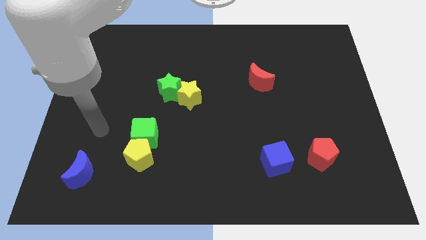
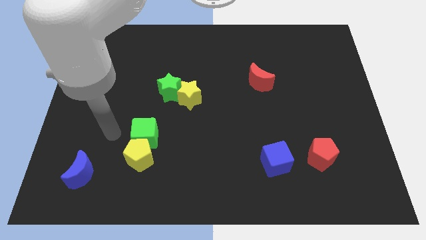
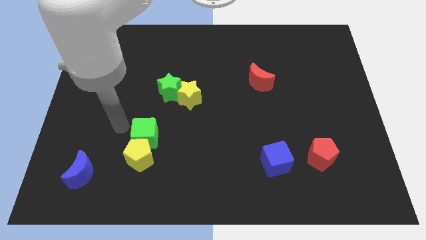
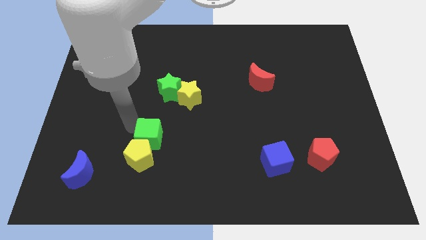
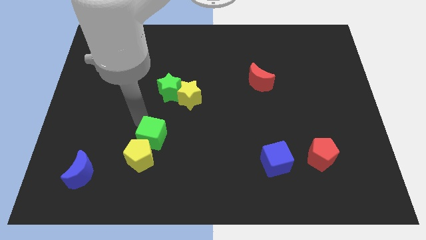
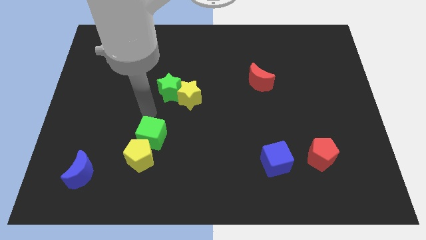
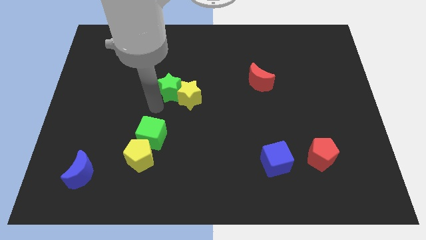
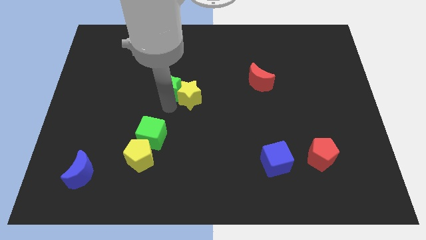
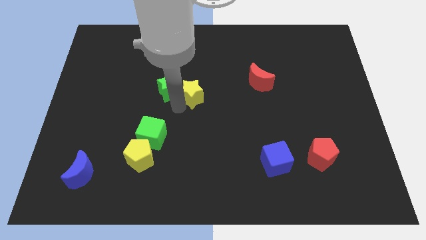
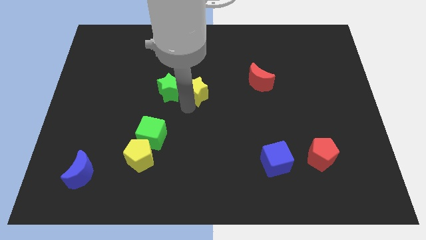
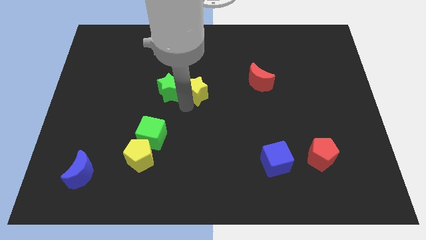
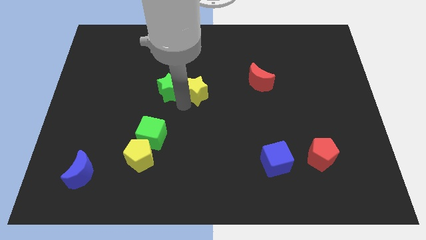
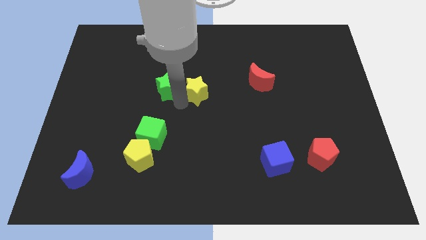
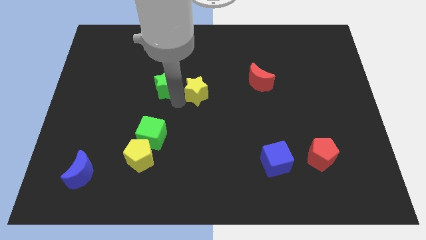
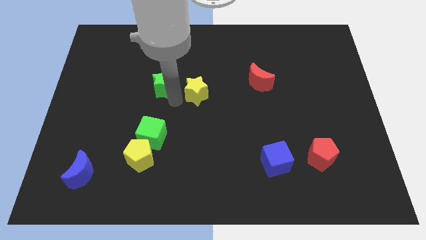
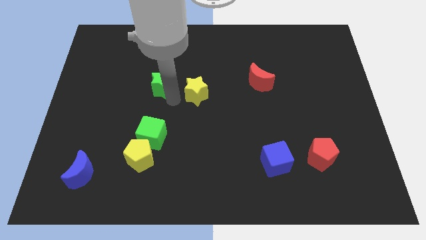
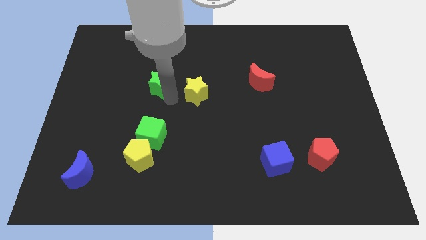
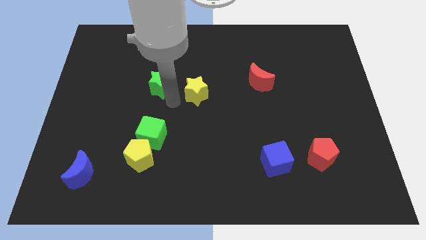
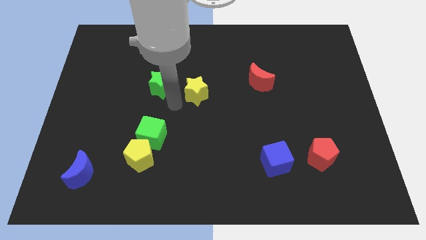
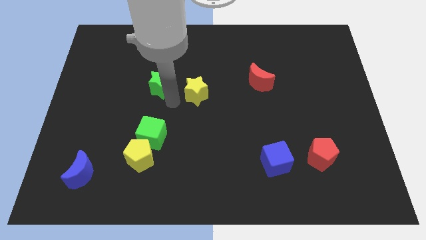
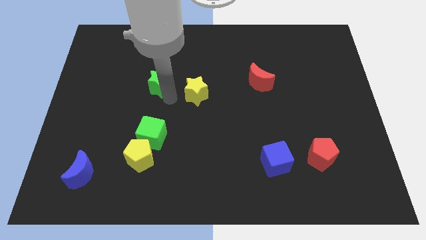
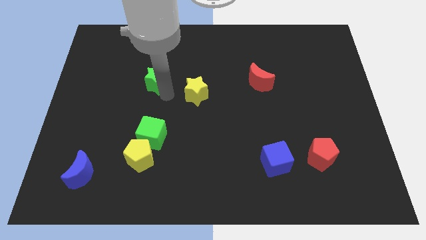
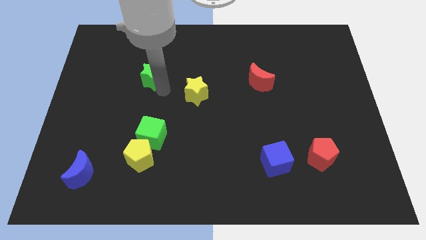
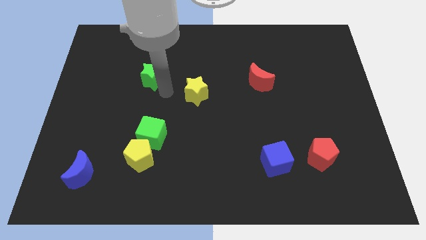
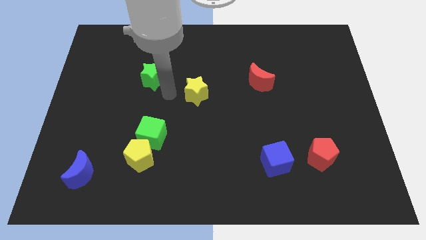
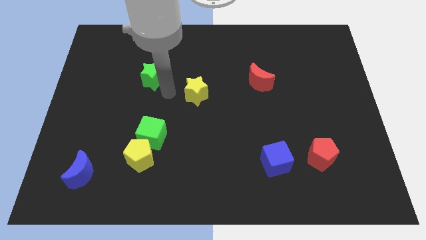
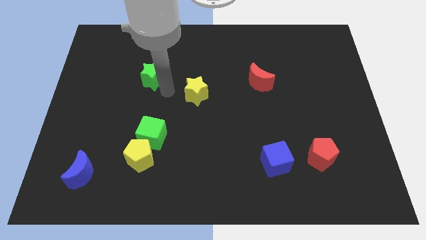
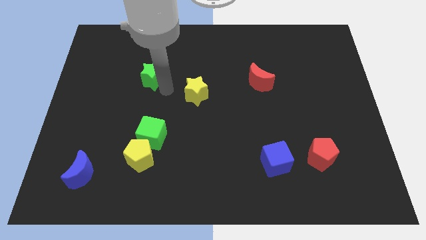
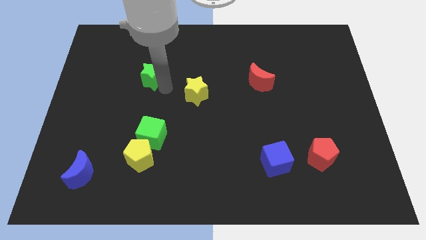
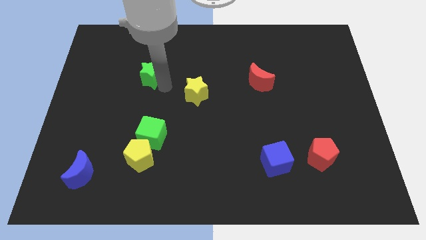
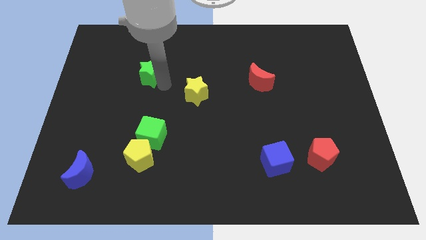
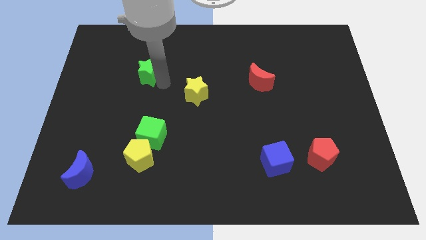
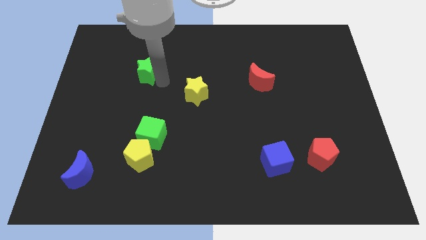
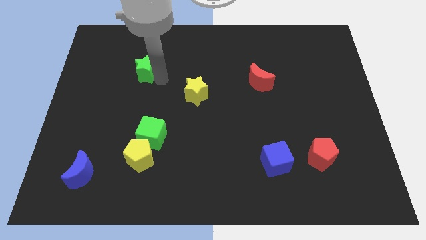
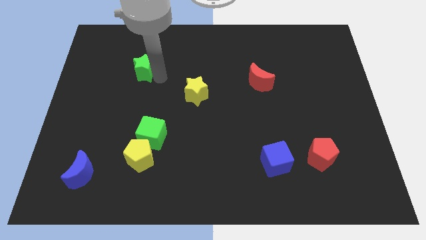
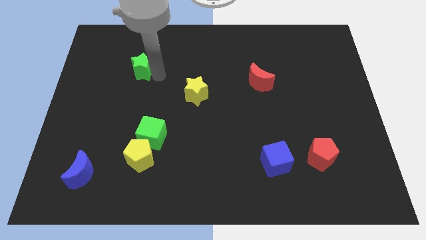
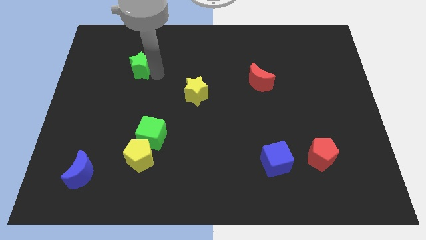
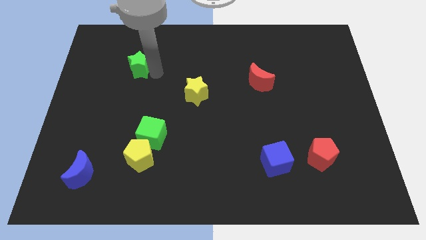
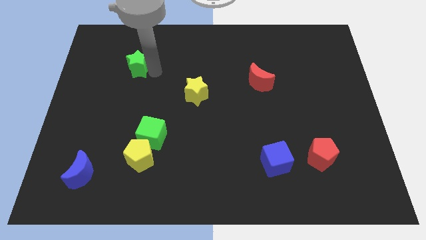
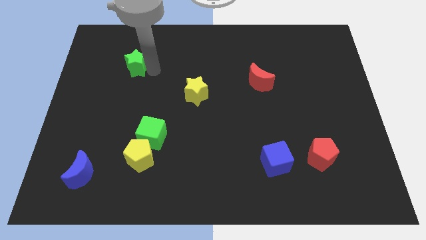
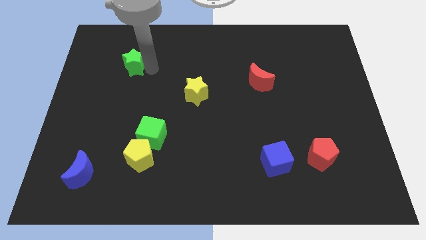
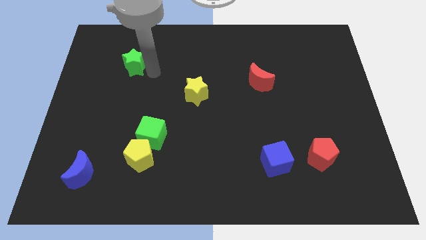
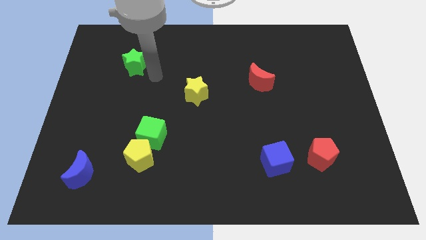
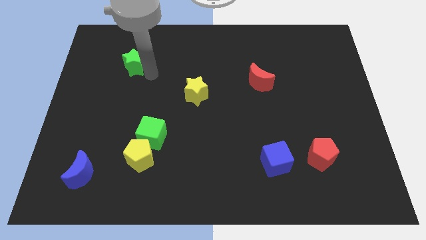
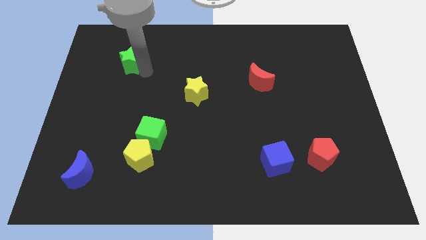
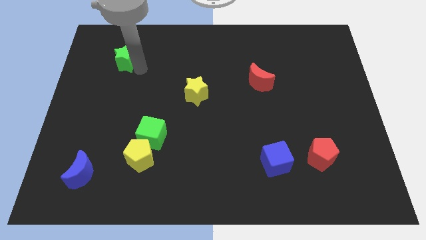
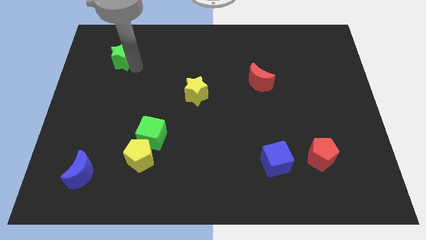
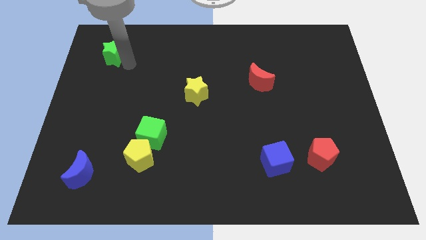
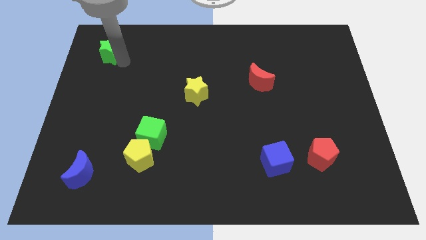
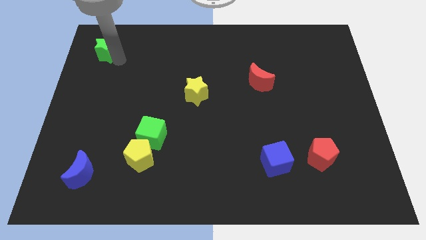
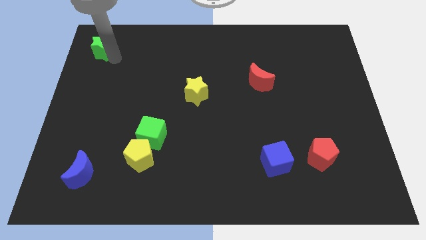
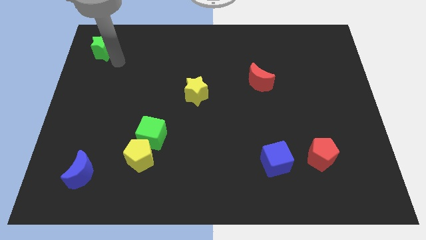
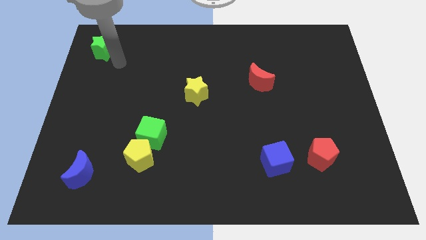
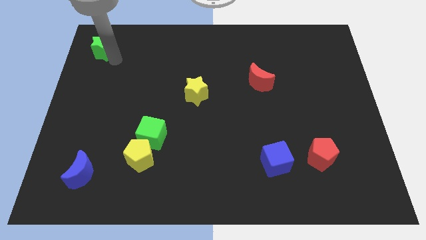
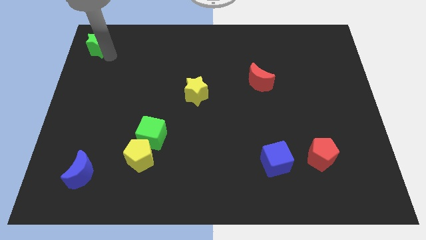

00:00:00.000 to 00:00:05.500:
push the green star to the upper left corner

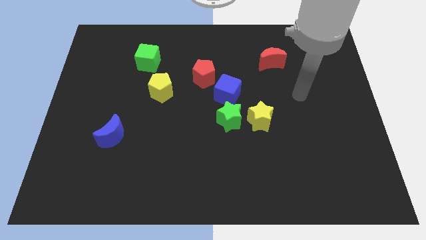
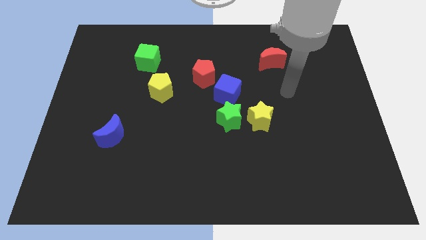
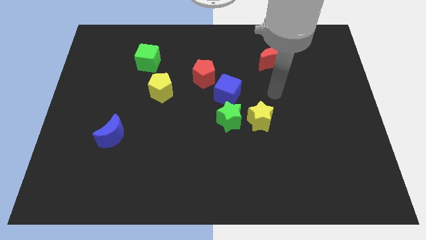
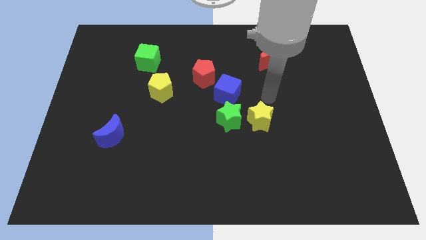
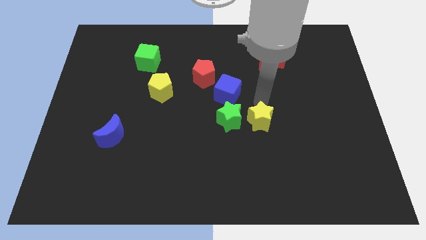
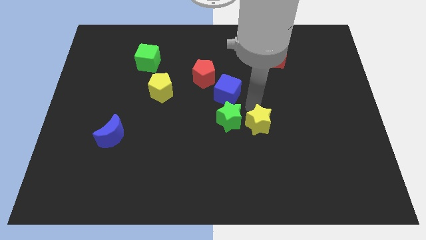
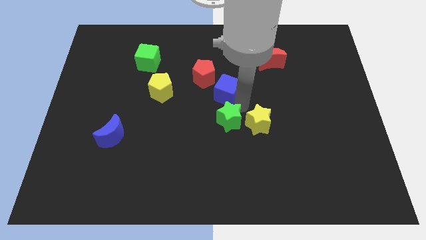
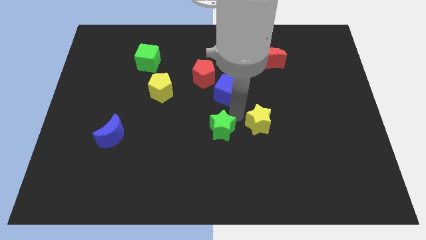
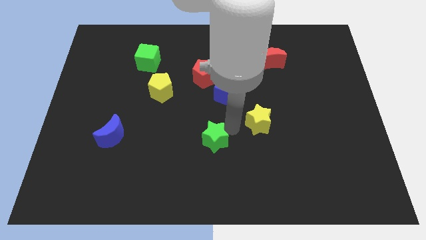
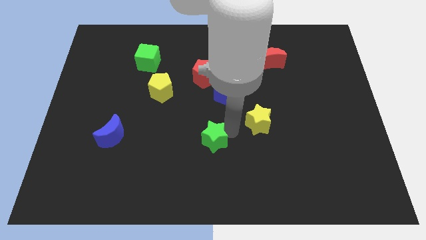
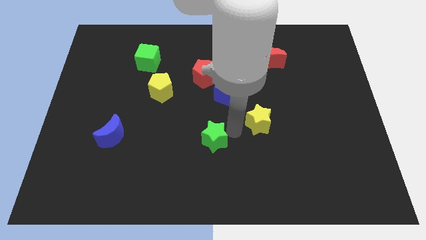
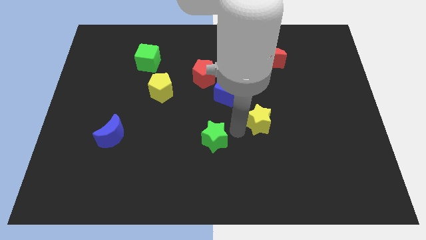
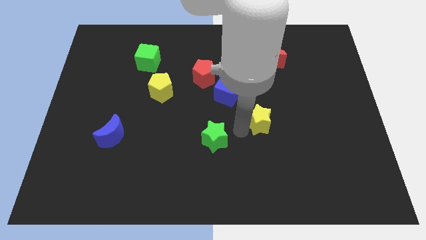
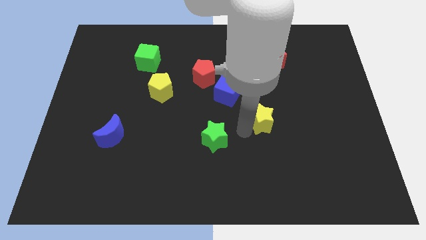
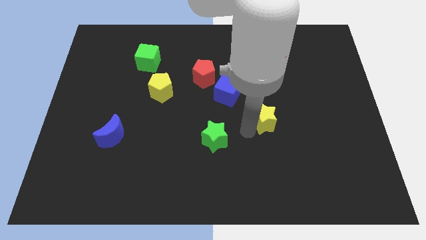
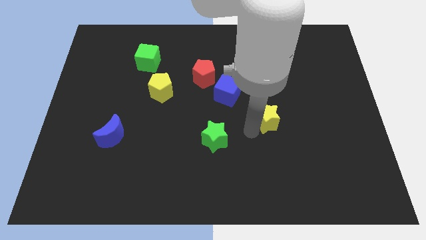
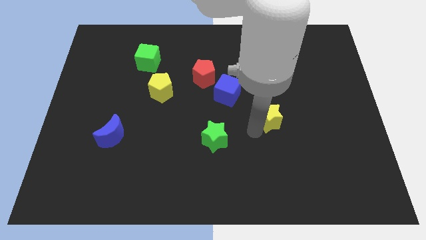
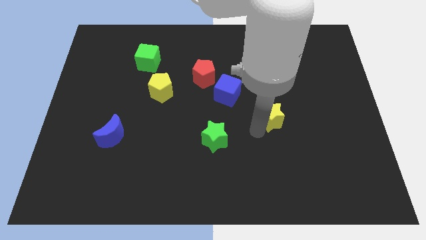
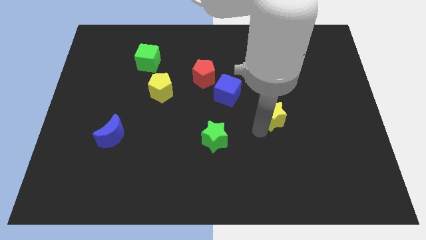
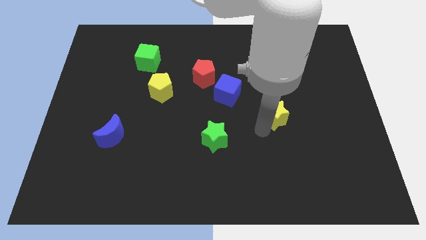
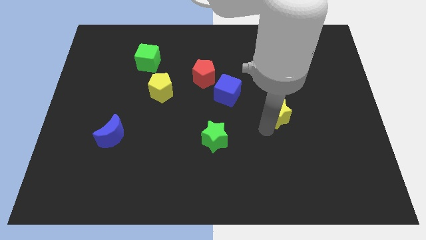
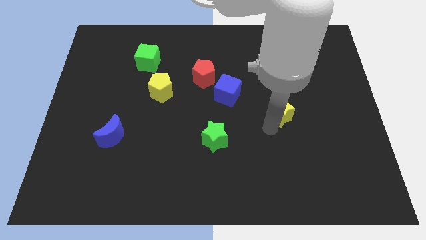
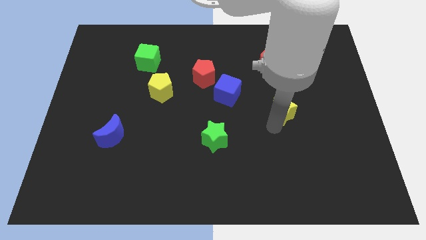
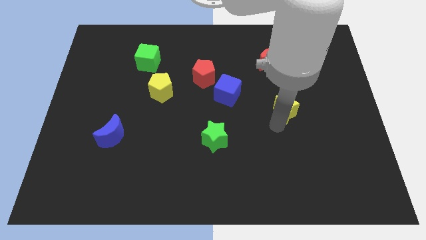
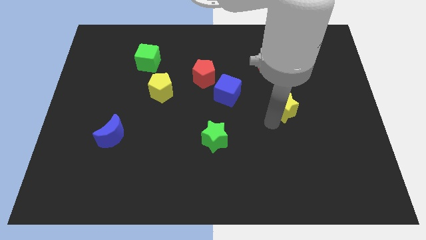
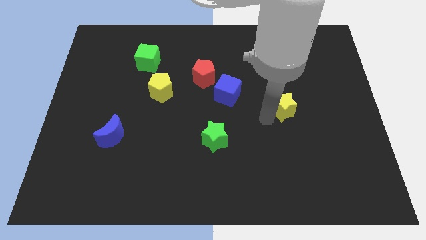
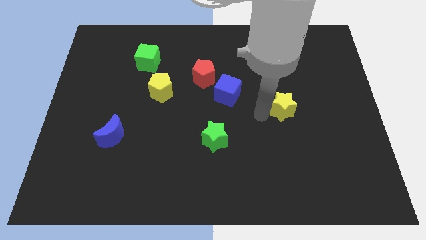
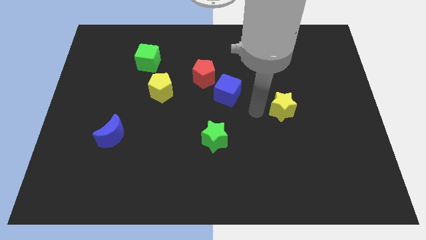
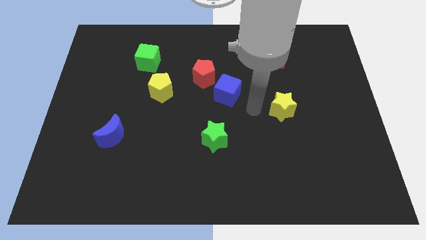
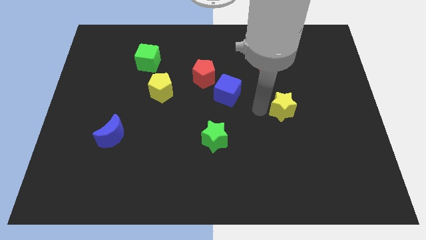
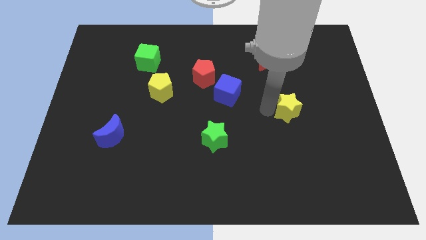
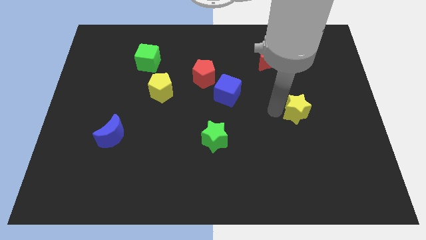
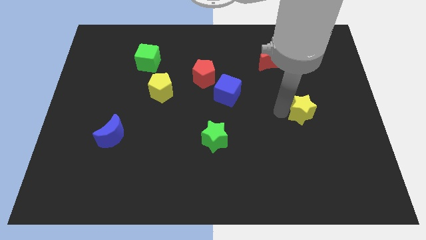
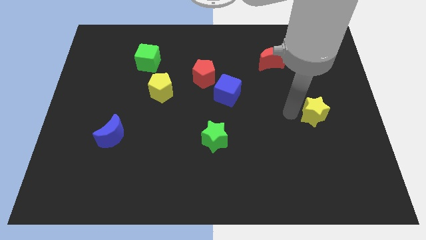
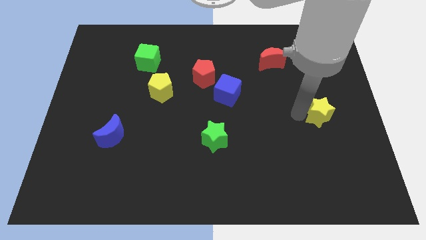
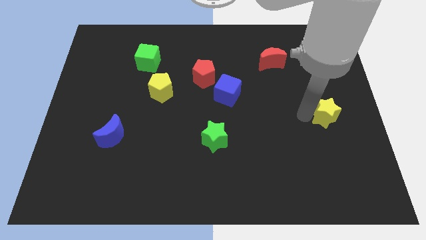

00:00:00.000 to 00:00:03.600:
slide the yellow star to the center right
